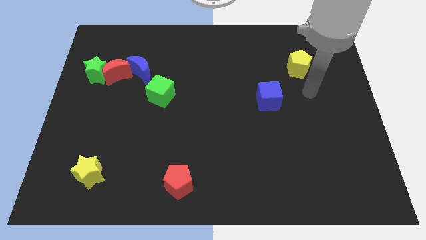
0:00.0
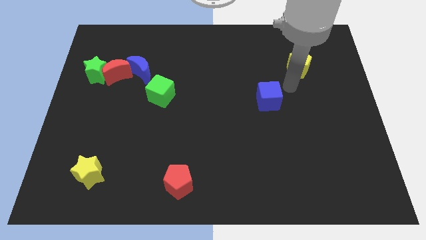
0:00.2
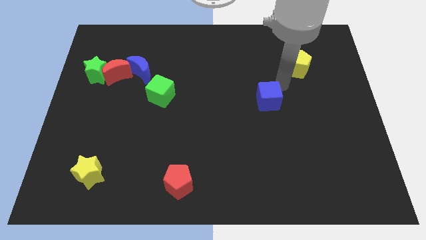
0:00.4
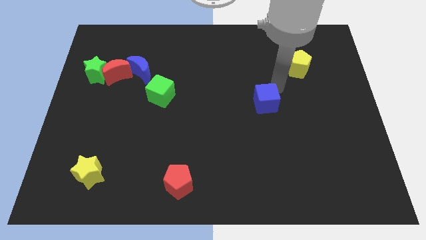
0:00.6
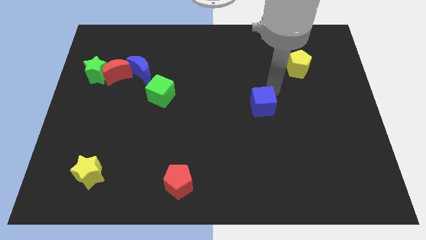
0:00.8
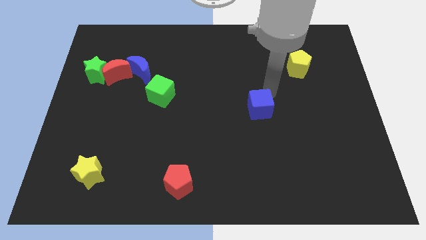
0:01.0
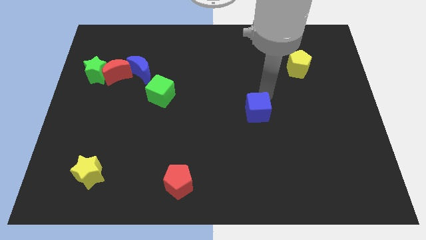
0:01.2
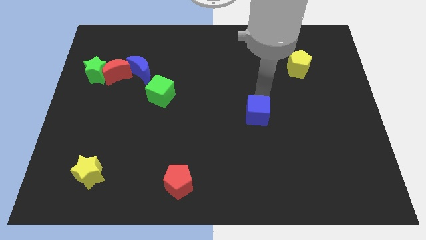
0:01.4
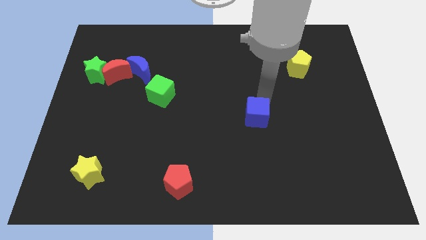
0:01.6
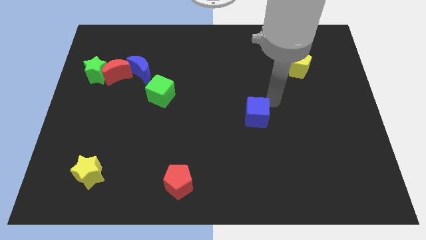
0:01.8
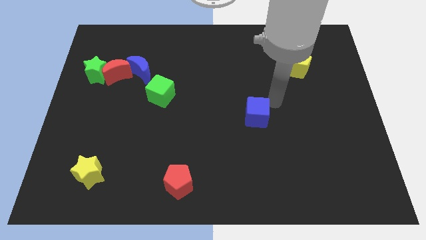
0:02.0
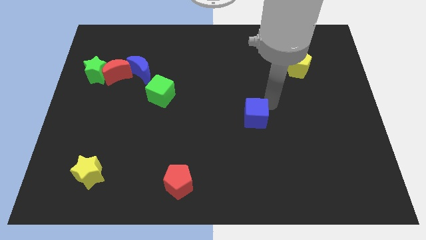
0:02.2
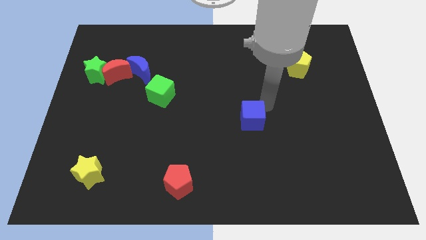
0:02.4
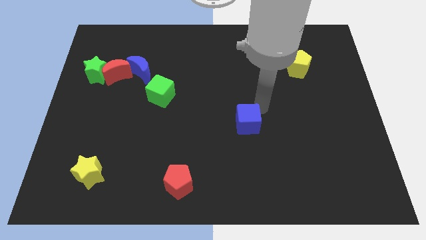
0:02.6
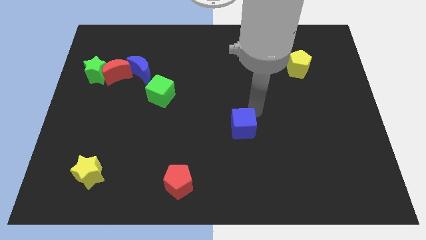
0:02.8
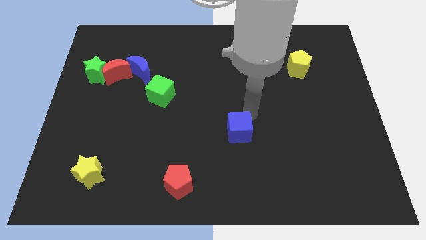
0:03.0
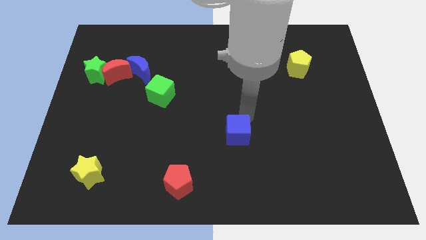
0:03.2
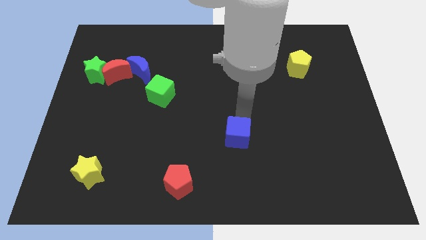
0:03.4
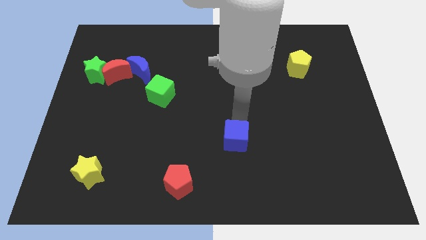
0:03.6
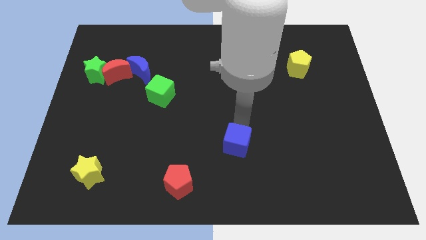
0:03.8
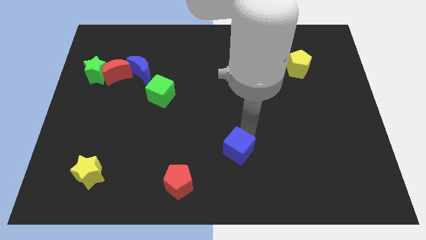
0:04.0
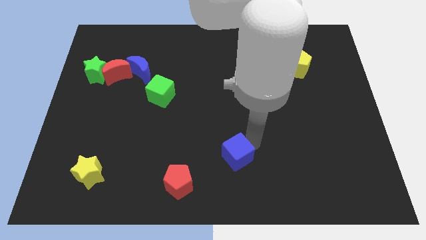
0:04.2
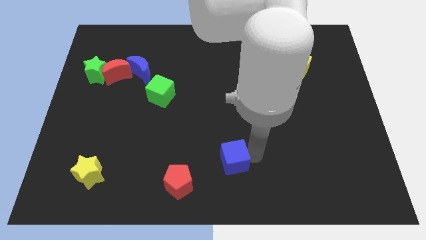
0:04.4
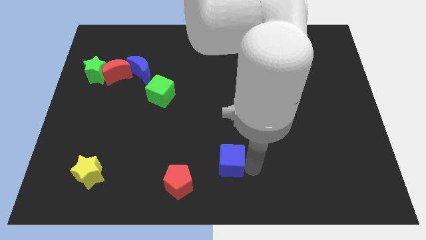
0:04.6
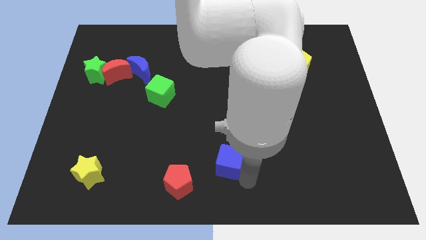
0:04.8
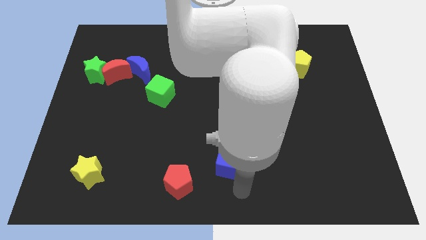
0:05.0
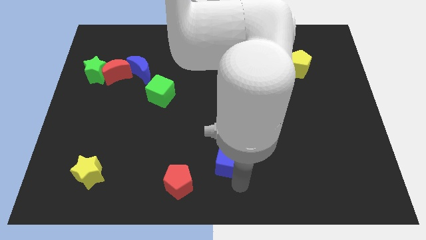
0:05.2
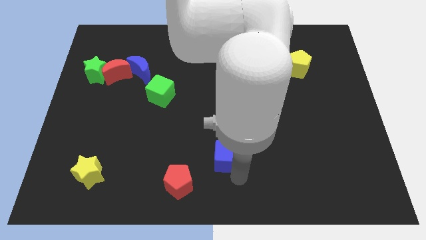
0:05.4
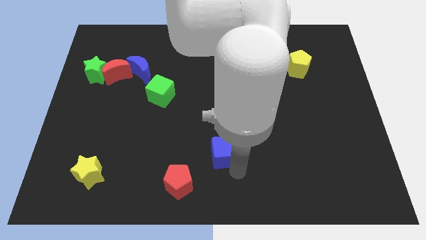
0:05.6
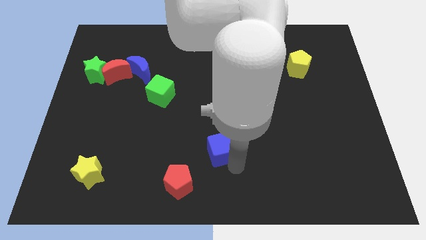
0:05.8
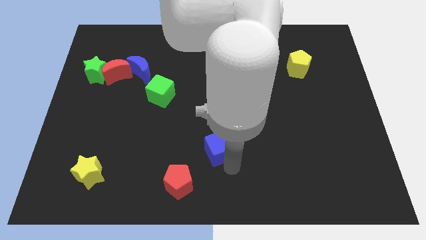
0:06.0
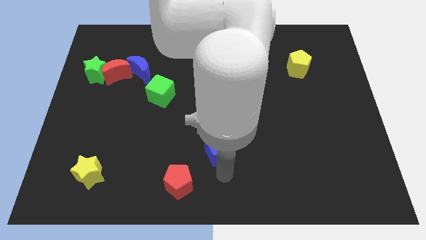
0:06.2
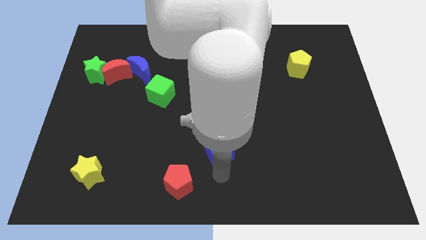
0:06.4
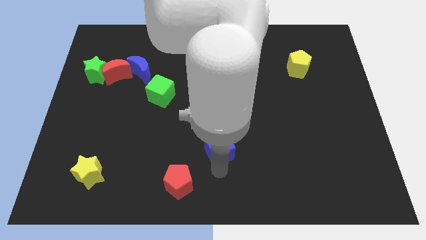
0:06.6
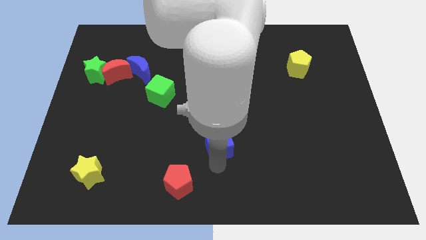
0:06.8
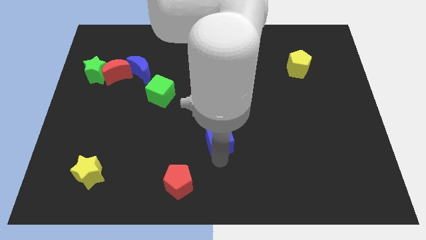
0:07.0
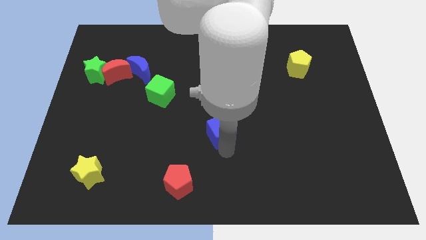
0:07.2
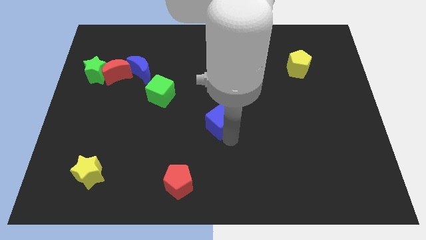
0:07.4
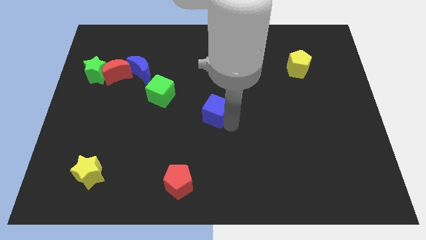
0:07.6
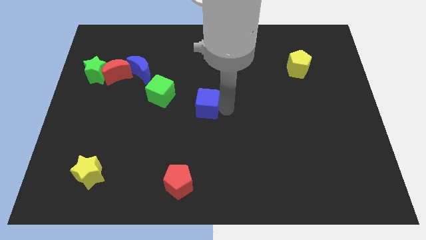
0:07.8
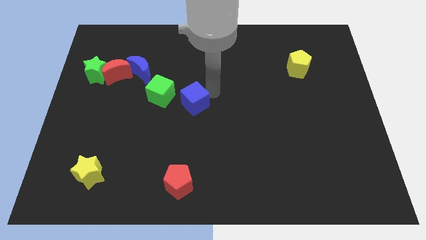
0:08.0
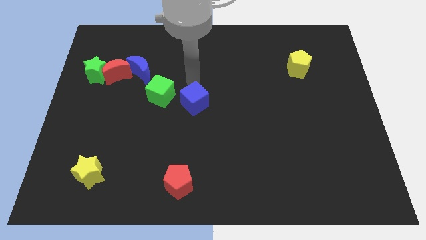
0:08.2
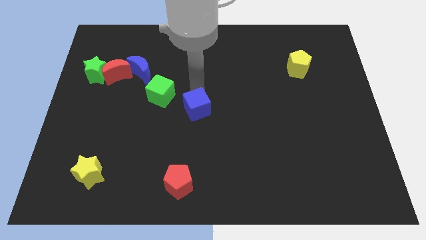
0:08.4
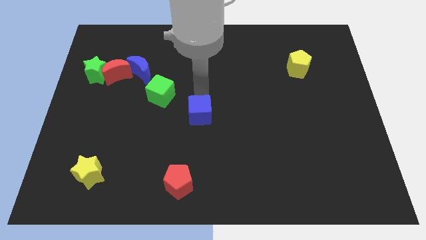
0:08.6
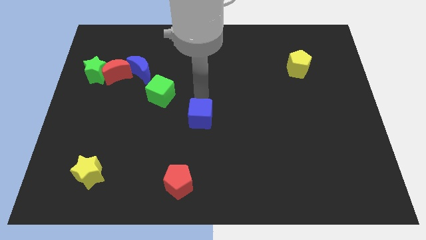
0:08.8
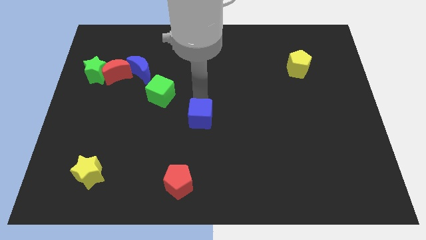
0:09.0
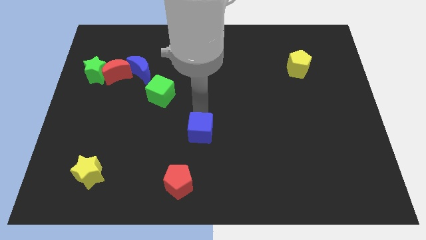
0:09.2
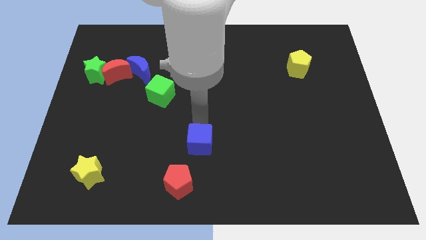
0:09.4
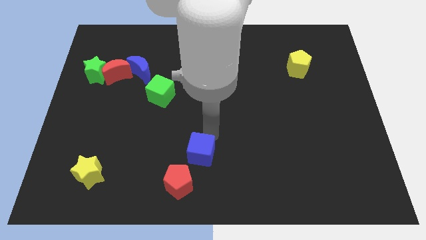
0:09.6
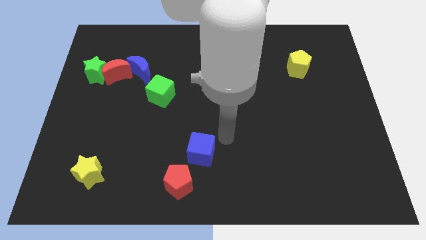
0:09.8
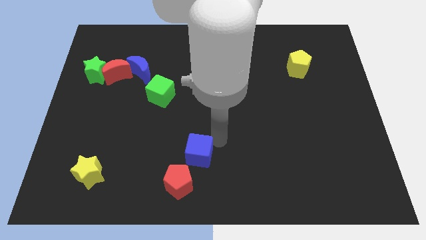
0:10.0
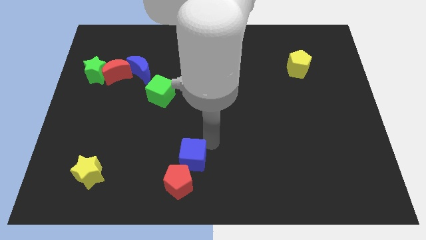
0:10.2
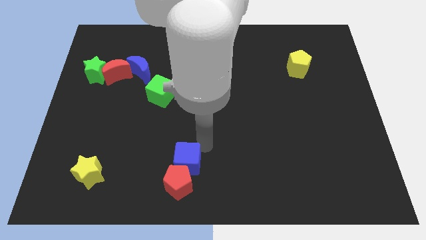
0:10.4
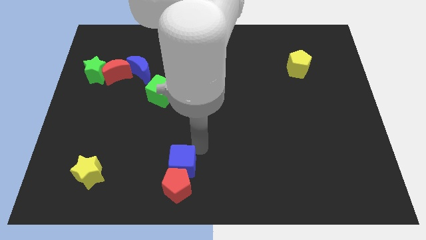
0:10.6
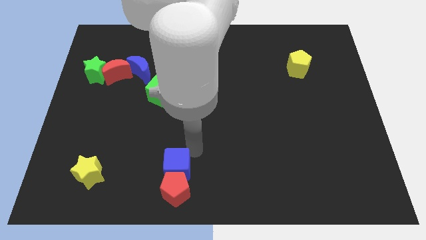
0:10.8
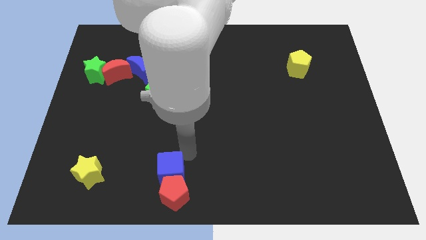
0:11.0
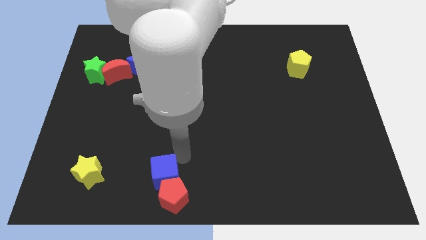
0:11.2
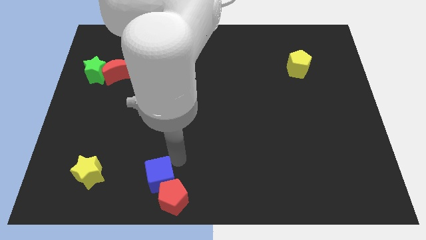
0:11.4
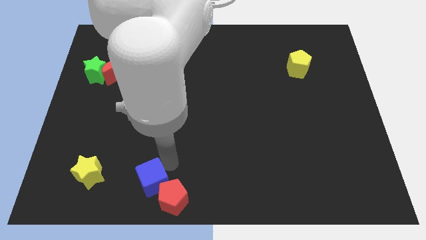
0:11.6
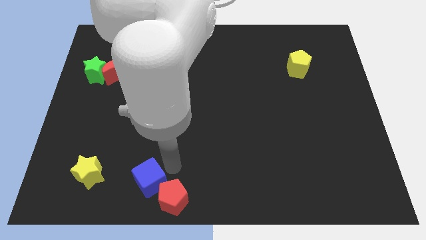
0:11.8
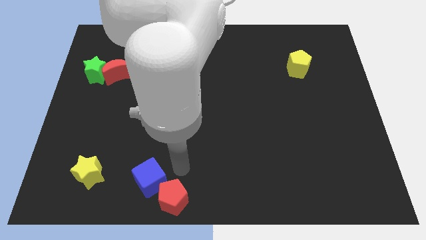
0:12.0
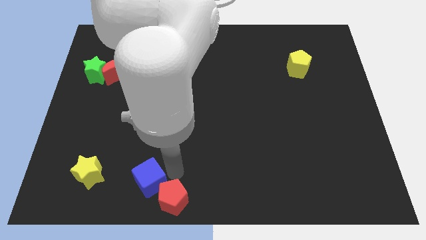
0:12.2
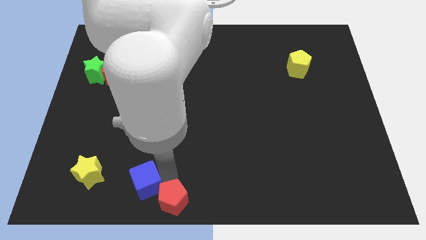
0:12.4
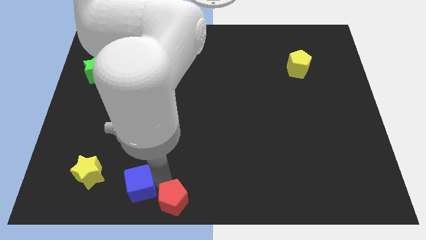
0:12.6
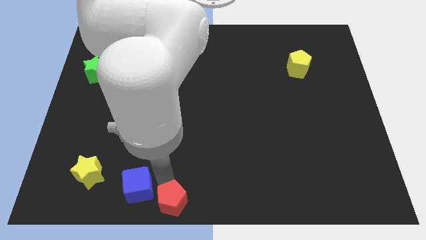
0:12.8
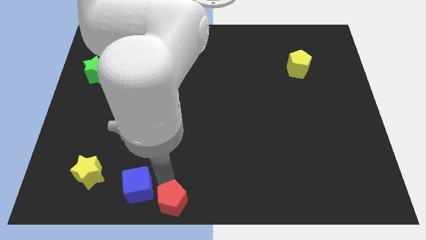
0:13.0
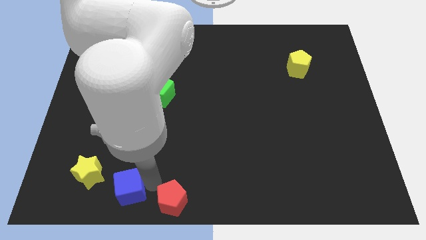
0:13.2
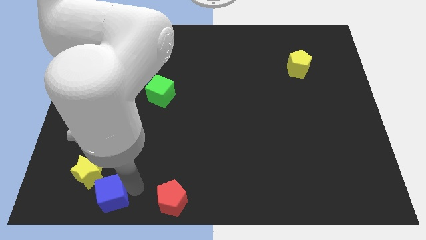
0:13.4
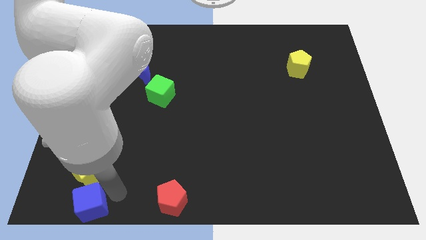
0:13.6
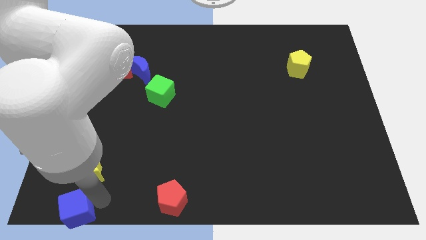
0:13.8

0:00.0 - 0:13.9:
push the blue cube to the lower left corner
